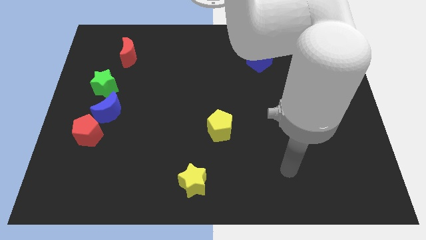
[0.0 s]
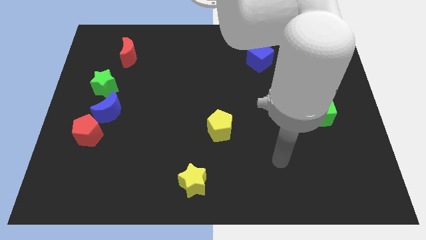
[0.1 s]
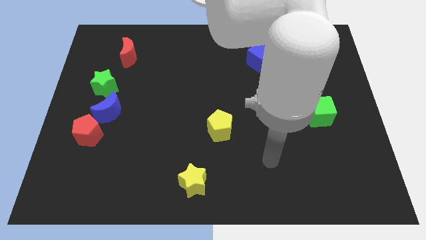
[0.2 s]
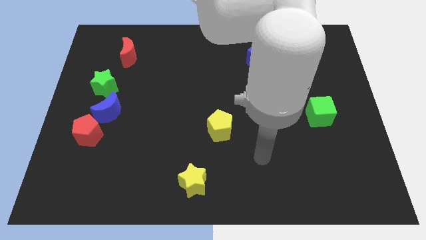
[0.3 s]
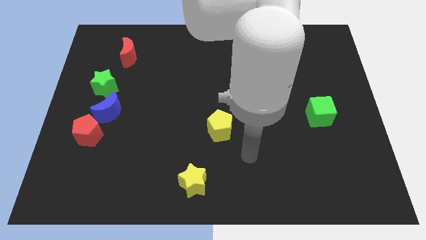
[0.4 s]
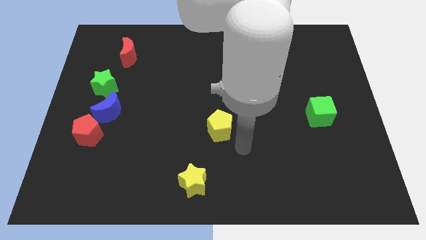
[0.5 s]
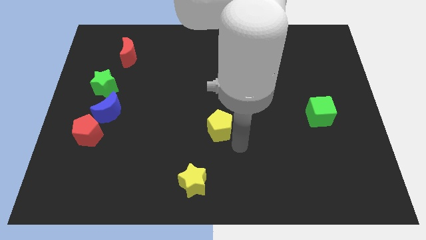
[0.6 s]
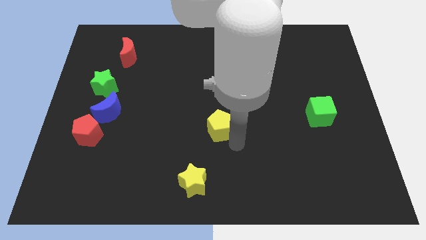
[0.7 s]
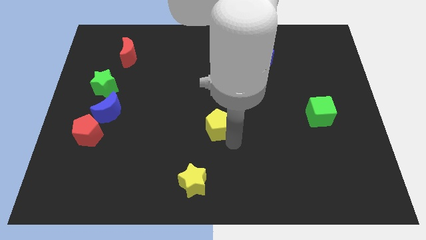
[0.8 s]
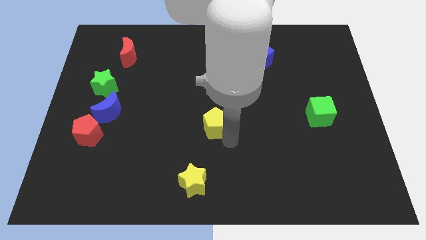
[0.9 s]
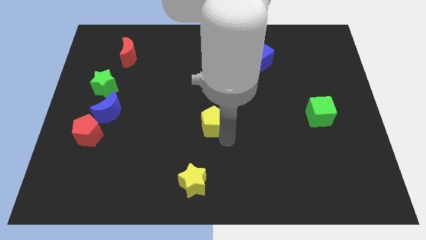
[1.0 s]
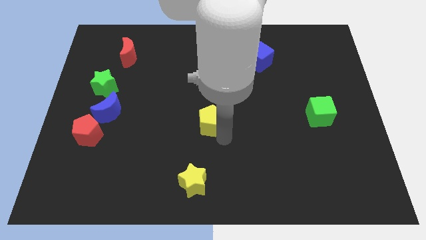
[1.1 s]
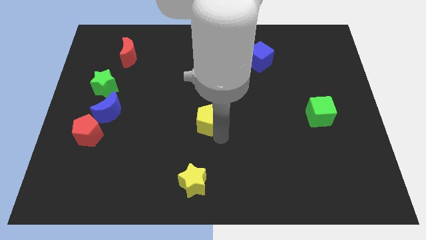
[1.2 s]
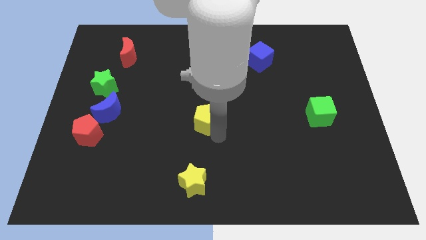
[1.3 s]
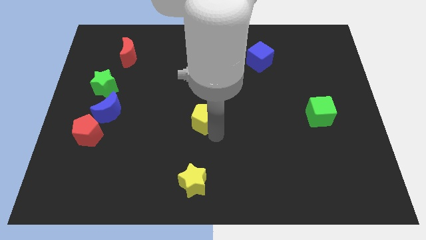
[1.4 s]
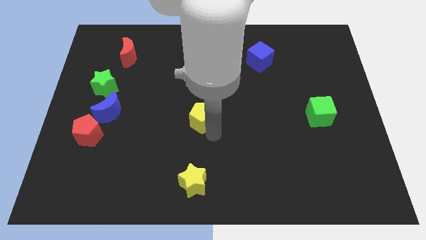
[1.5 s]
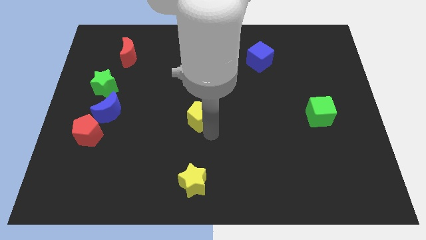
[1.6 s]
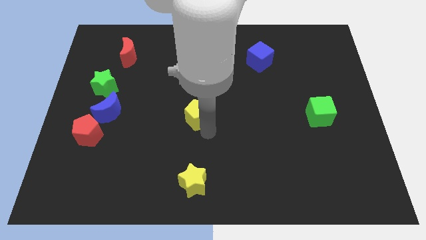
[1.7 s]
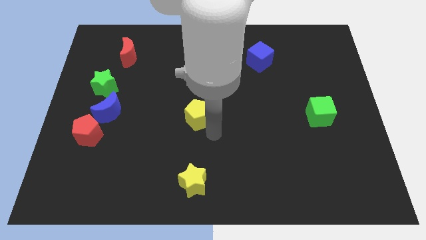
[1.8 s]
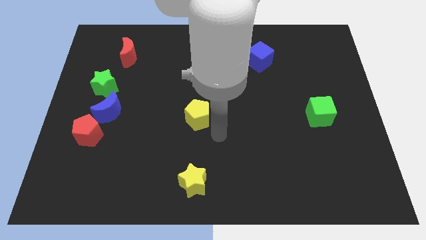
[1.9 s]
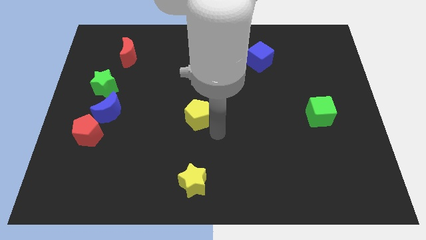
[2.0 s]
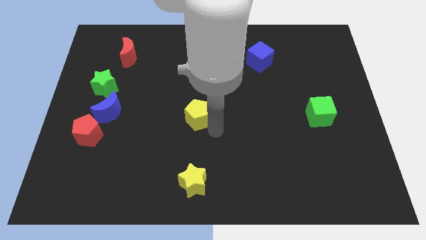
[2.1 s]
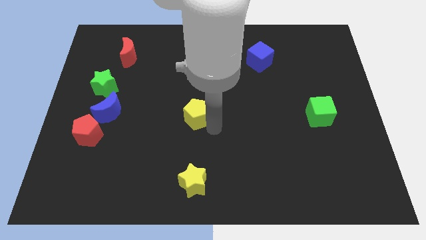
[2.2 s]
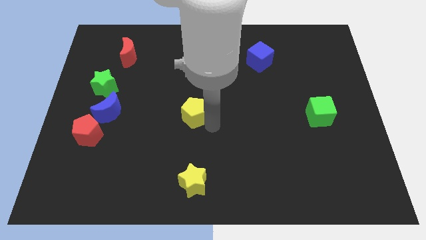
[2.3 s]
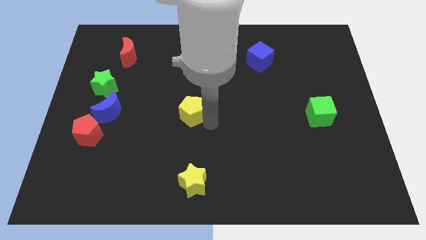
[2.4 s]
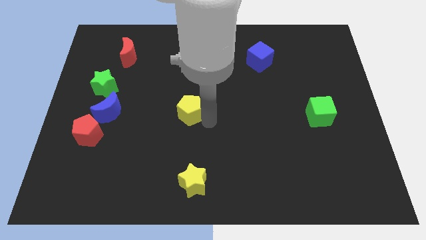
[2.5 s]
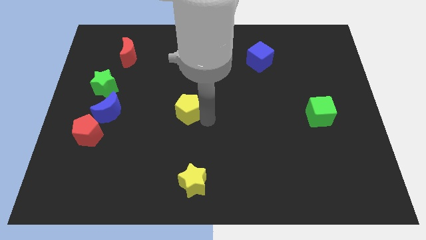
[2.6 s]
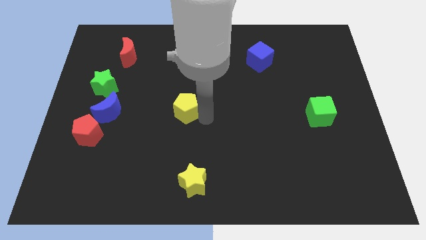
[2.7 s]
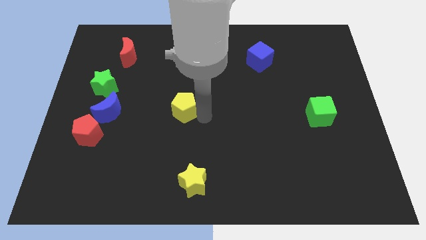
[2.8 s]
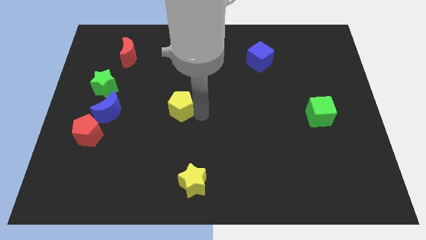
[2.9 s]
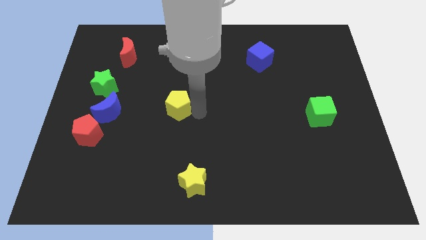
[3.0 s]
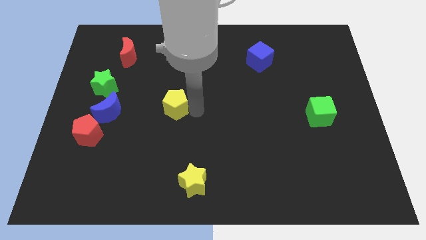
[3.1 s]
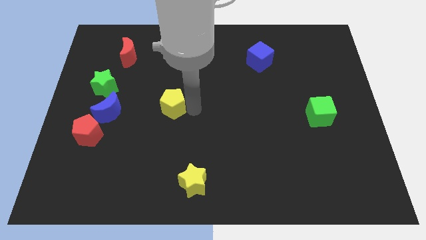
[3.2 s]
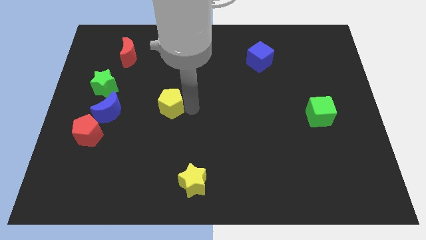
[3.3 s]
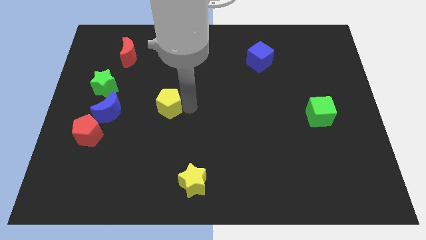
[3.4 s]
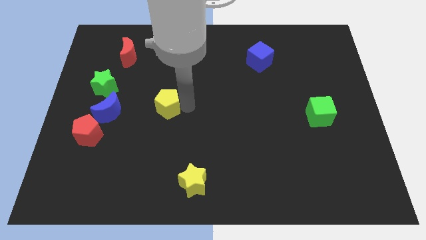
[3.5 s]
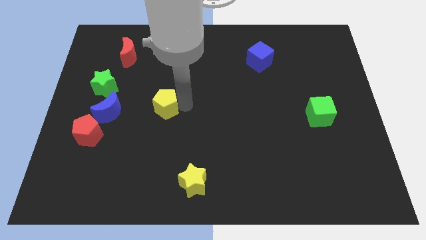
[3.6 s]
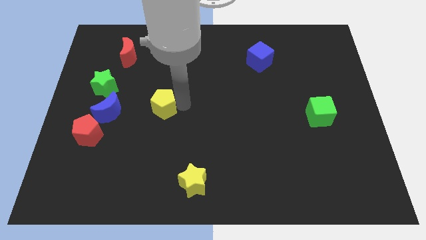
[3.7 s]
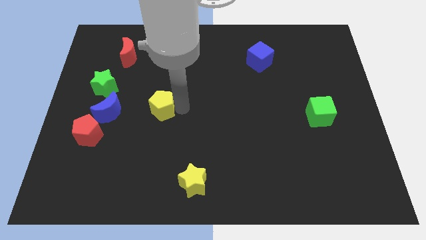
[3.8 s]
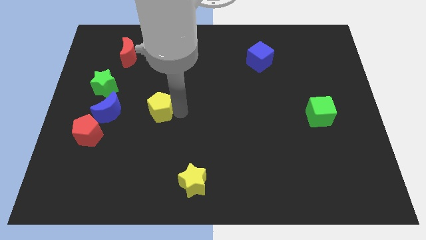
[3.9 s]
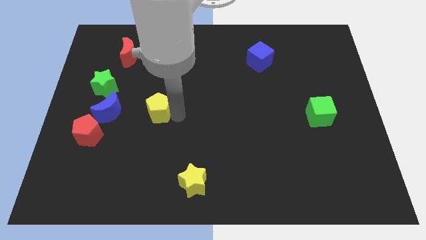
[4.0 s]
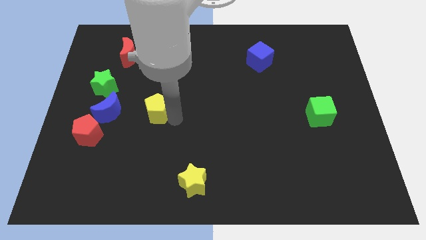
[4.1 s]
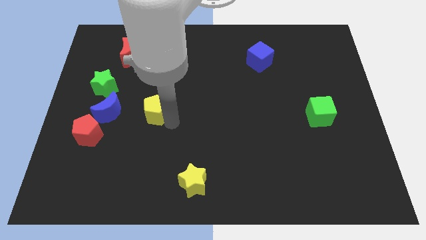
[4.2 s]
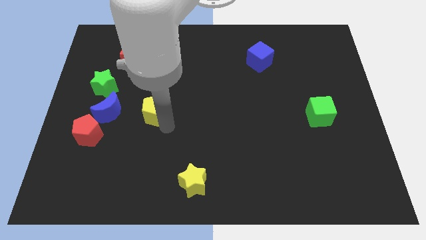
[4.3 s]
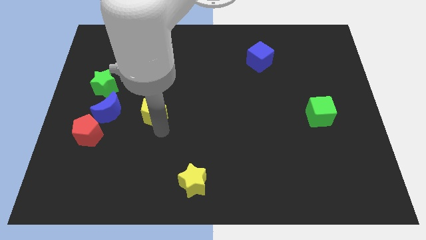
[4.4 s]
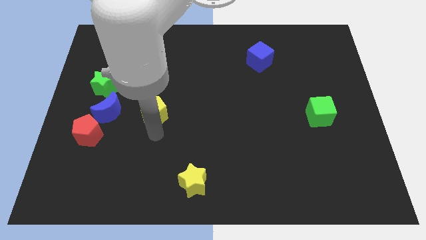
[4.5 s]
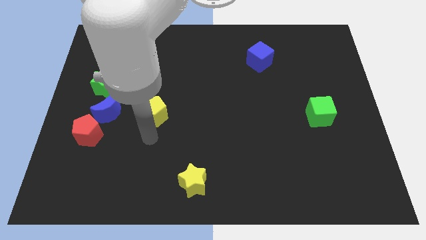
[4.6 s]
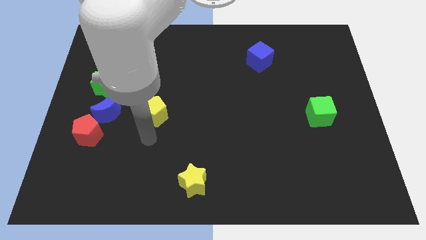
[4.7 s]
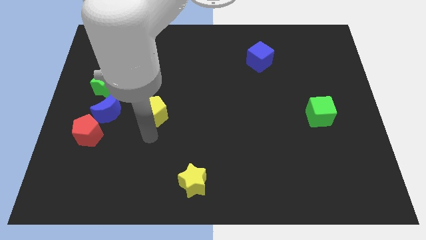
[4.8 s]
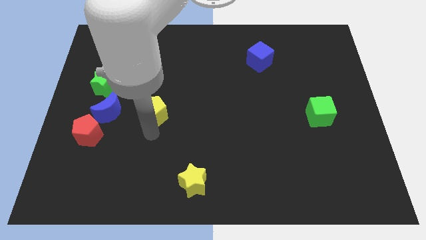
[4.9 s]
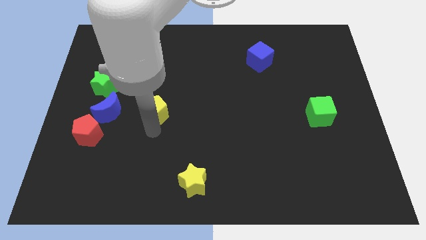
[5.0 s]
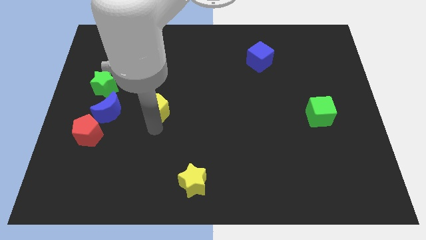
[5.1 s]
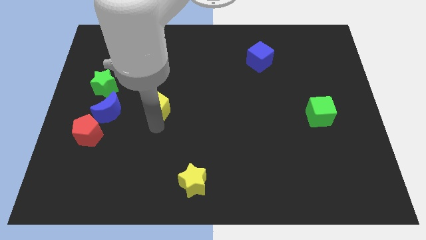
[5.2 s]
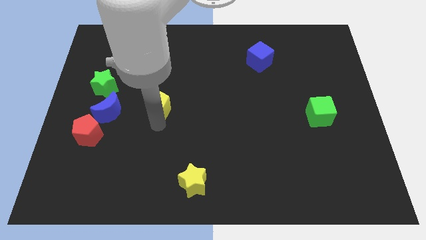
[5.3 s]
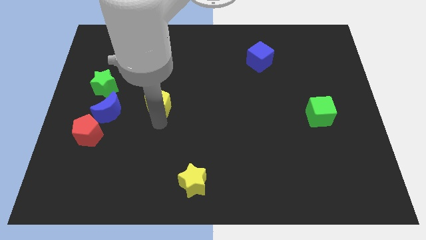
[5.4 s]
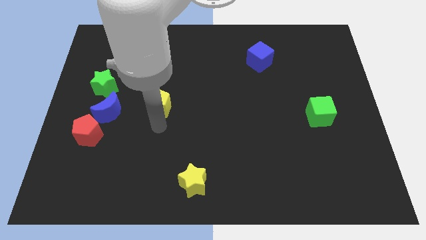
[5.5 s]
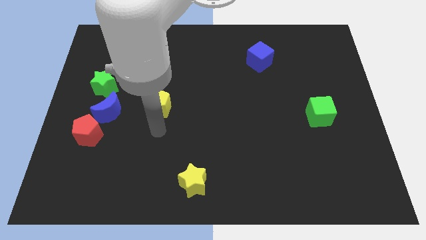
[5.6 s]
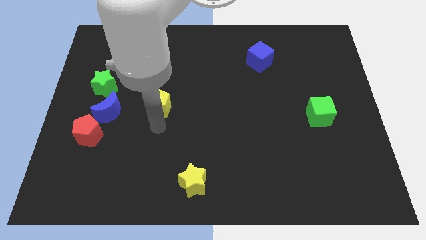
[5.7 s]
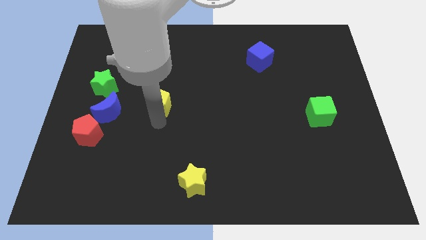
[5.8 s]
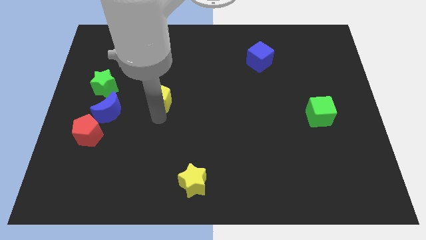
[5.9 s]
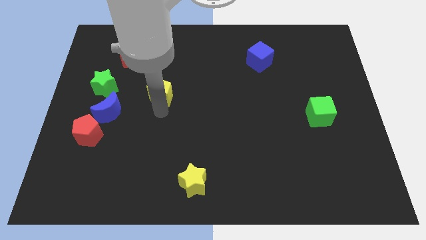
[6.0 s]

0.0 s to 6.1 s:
push the yellow pentagon right of the green star

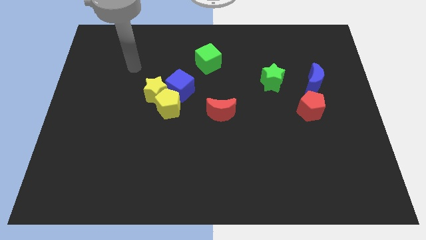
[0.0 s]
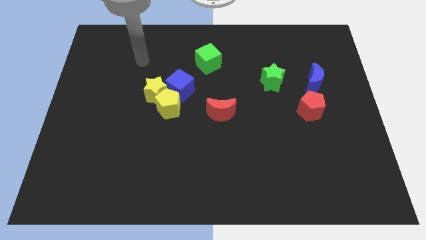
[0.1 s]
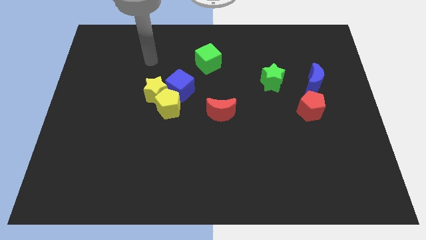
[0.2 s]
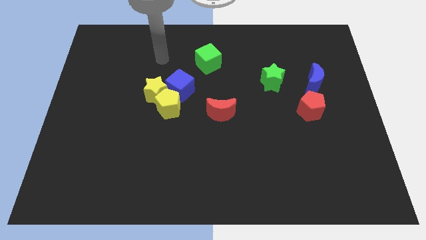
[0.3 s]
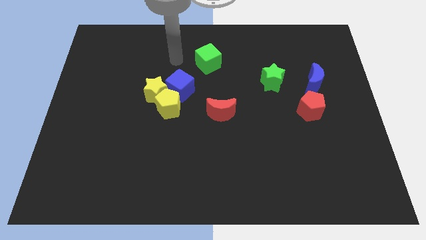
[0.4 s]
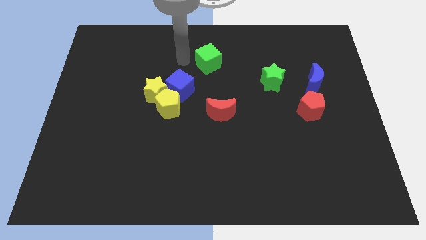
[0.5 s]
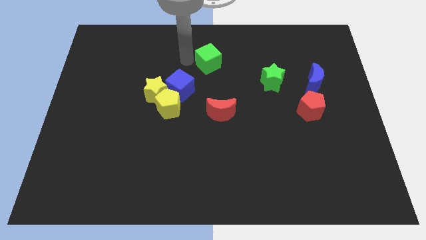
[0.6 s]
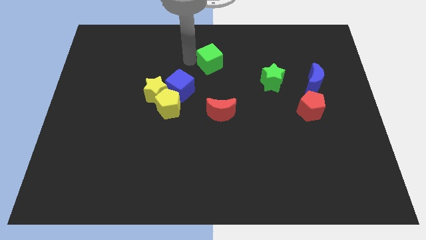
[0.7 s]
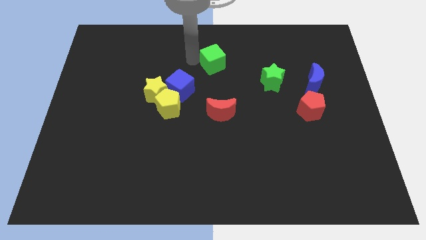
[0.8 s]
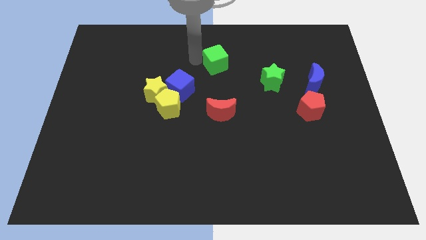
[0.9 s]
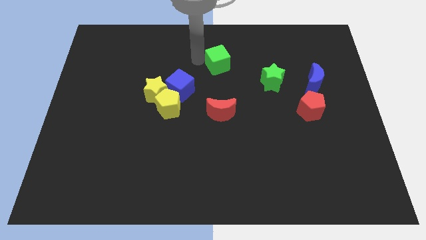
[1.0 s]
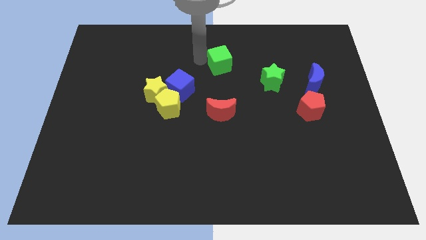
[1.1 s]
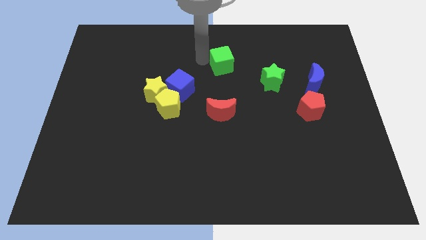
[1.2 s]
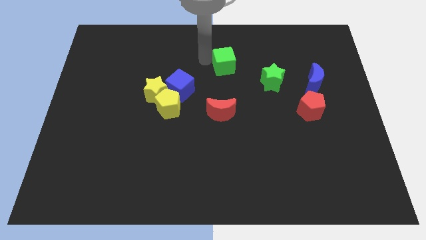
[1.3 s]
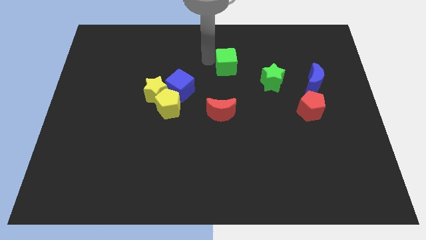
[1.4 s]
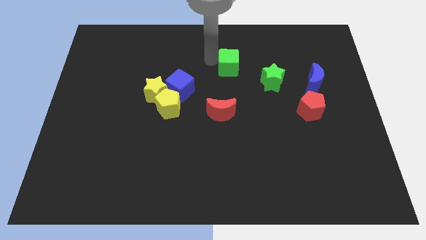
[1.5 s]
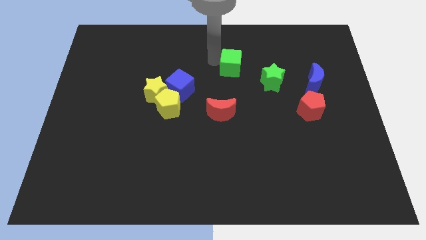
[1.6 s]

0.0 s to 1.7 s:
move the green cube to the top left of the green star
